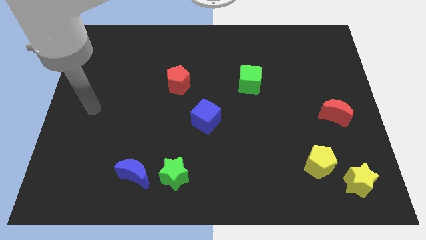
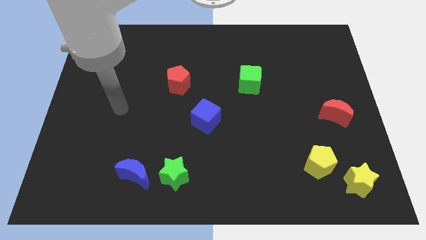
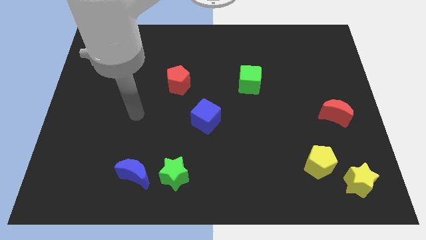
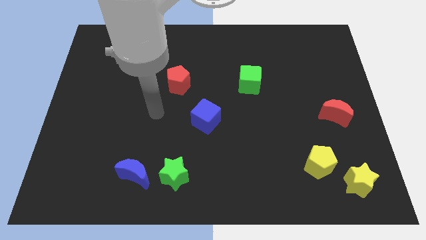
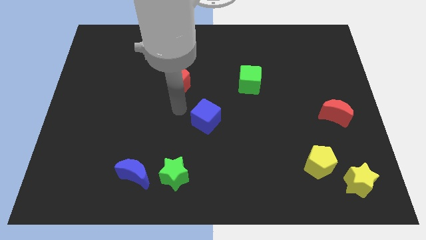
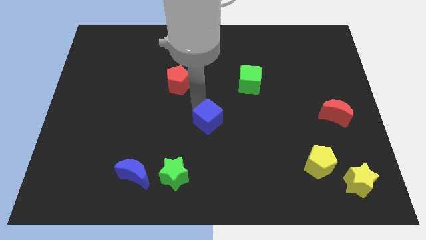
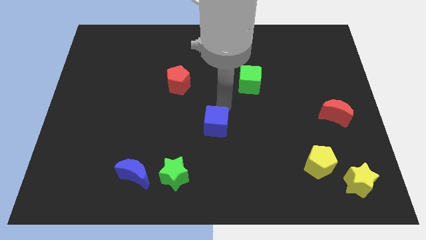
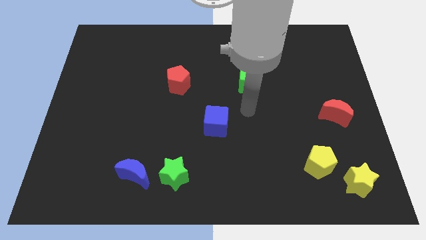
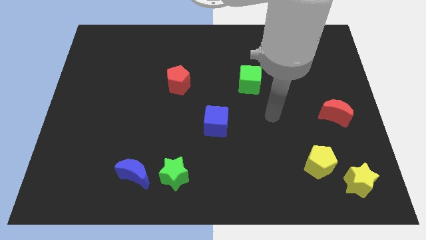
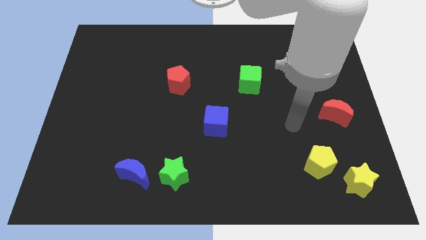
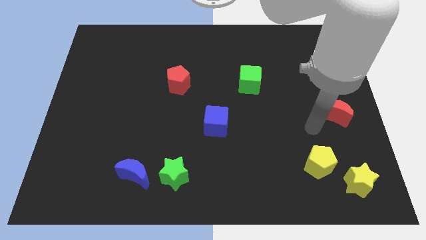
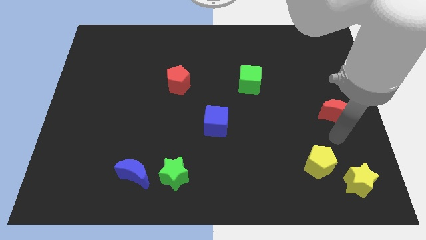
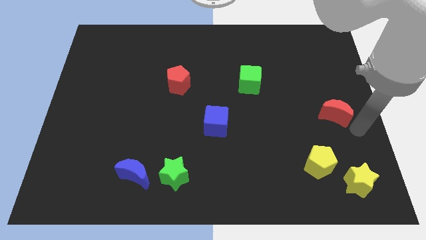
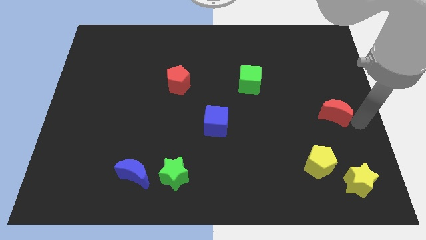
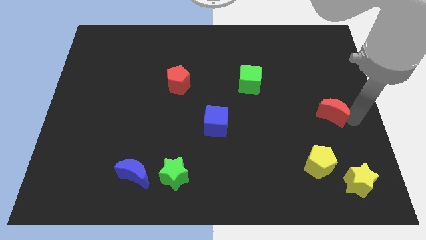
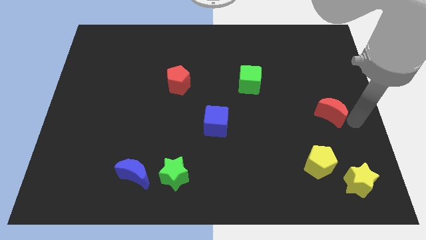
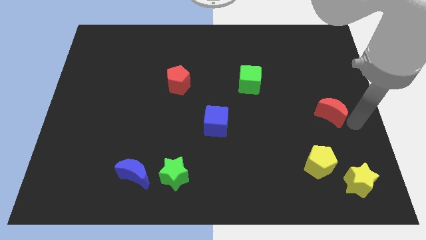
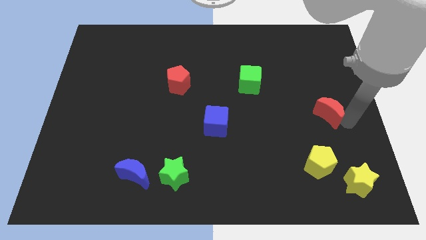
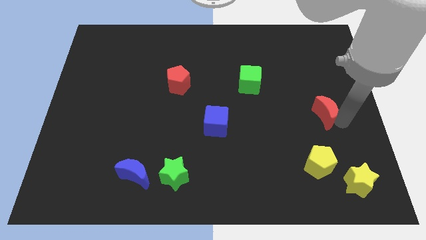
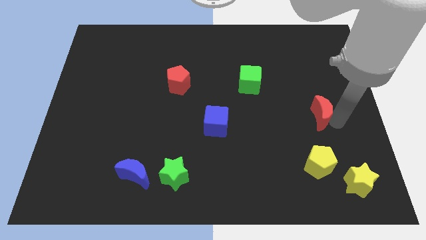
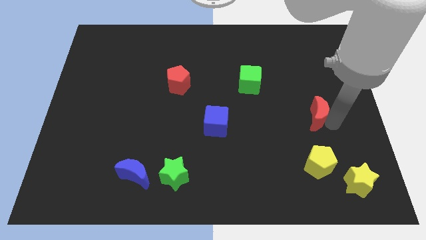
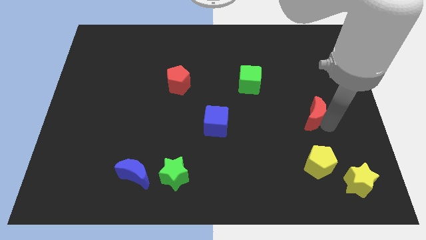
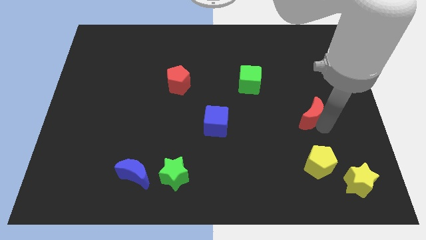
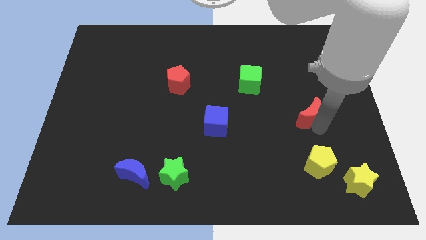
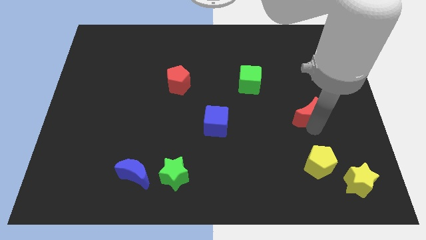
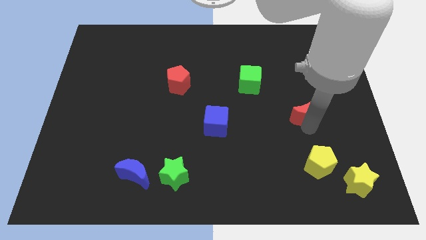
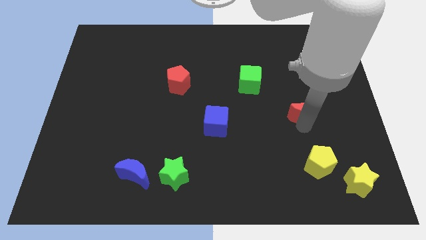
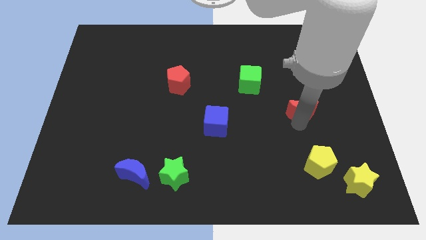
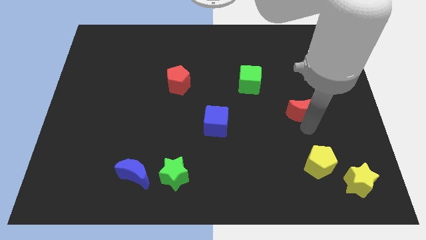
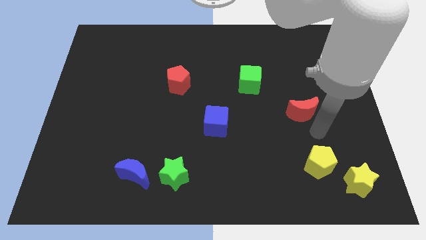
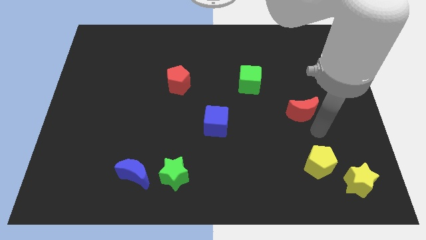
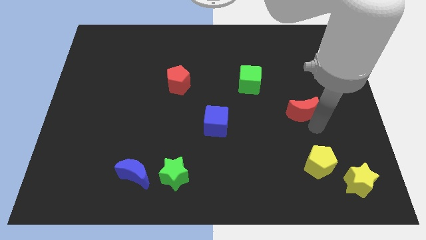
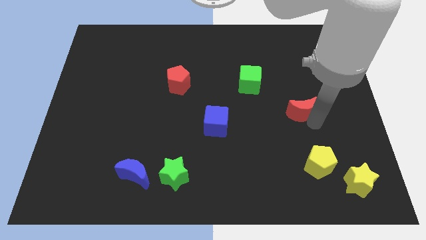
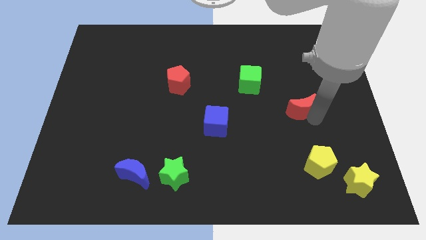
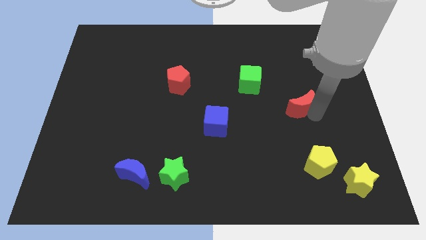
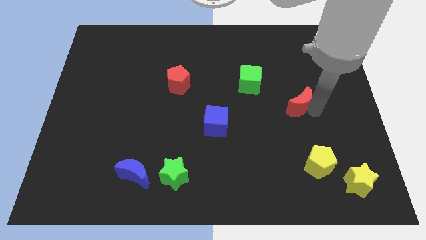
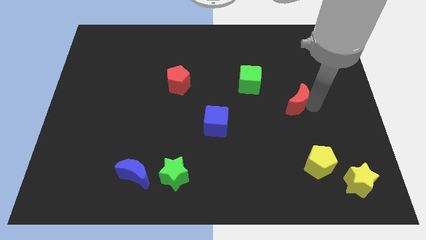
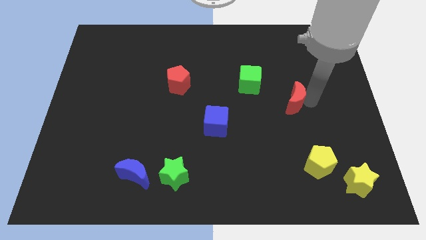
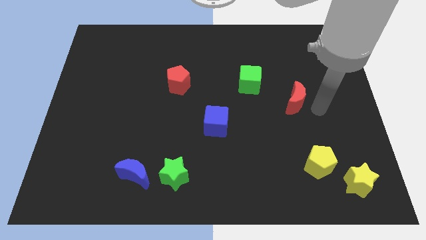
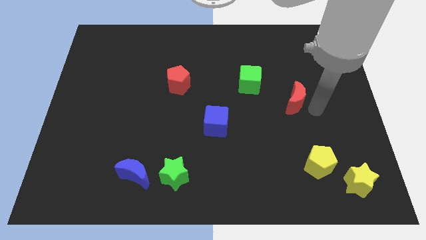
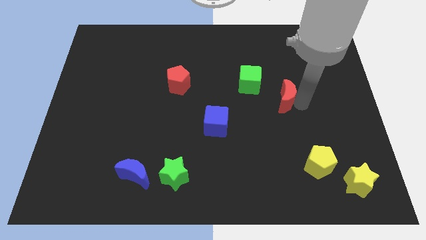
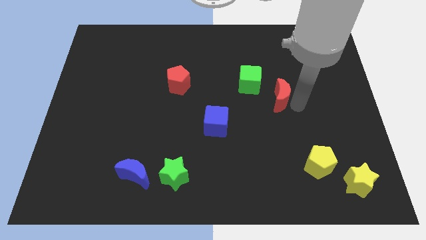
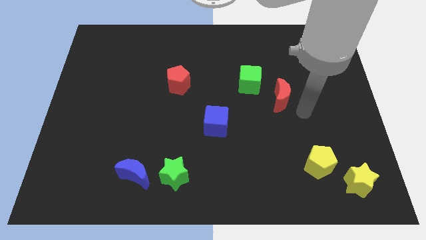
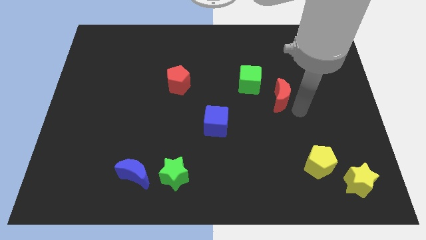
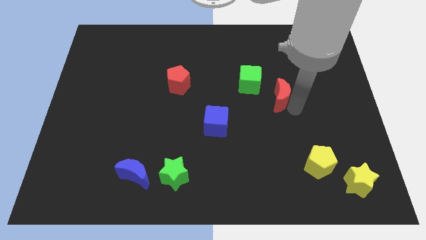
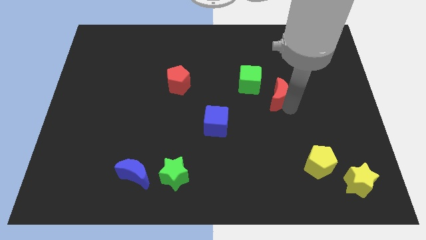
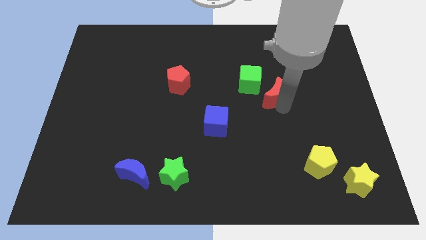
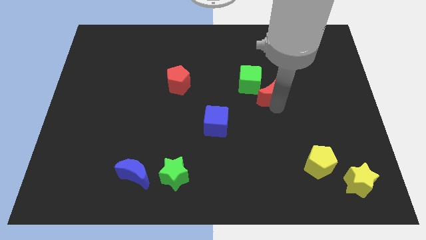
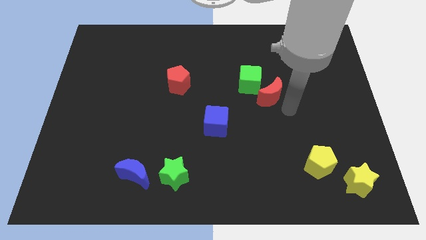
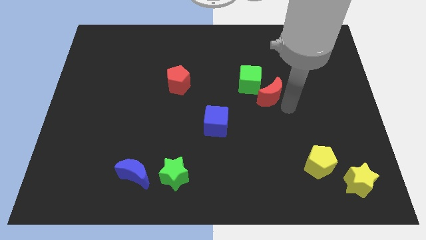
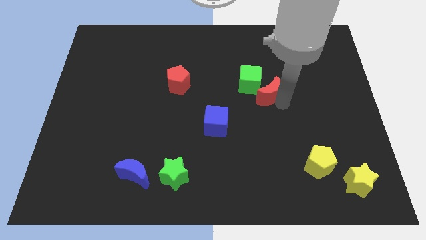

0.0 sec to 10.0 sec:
put the red moon close to the green cube

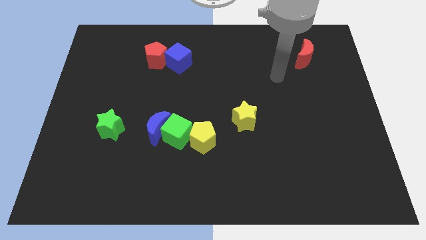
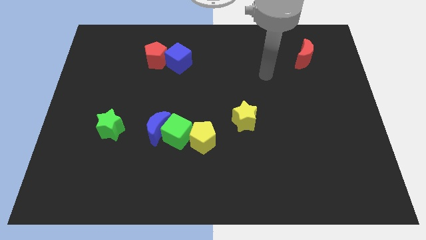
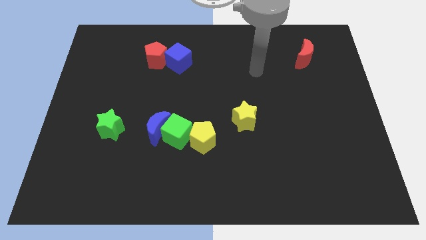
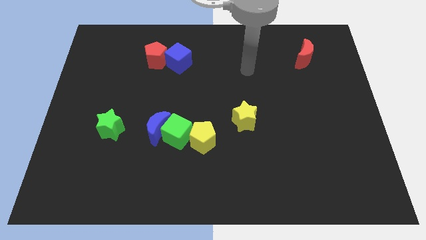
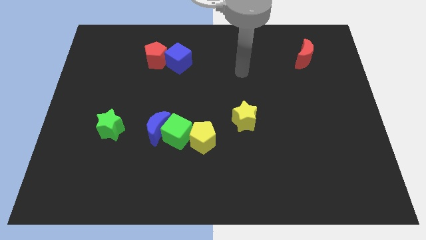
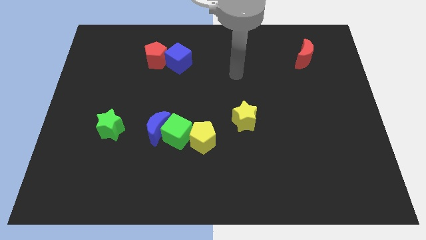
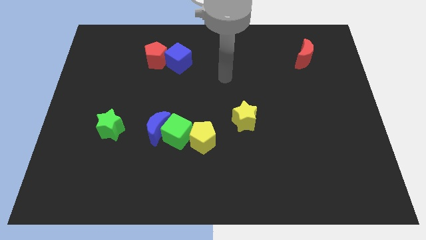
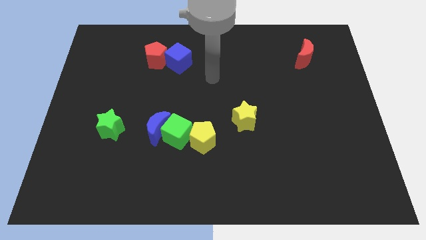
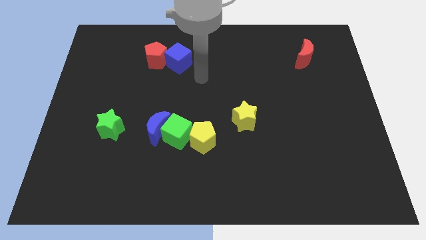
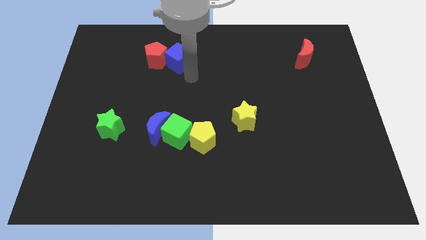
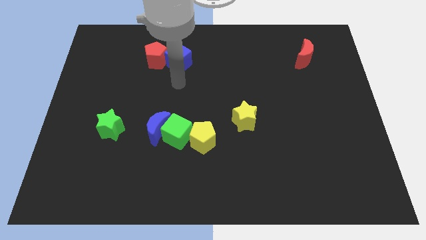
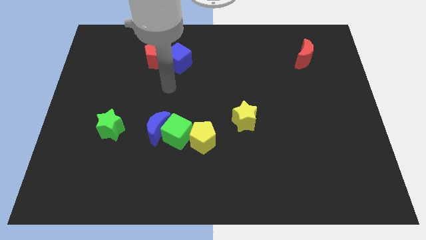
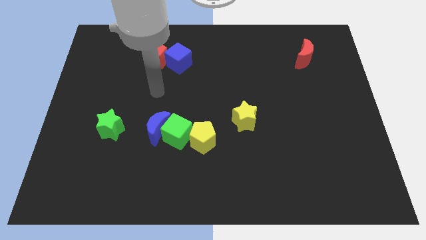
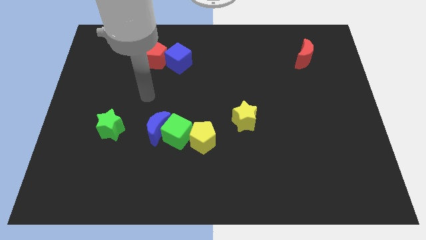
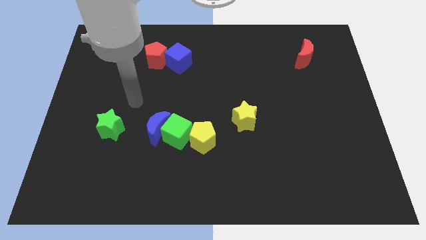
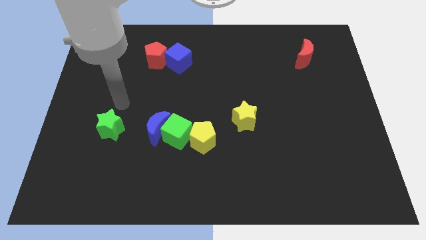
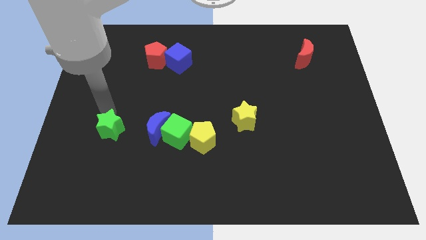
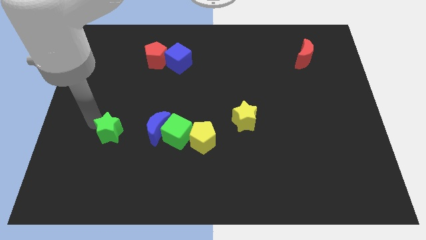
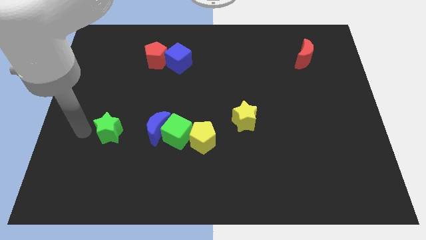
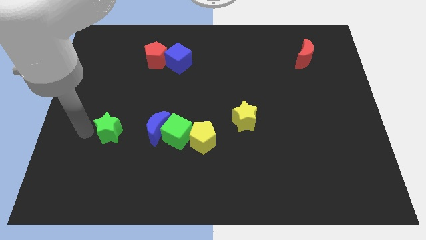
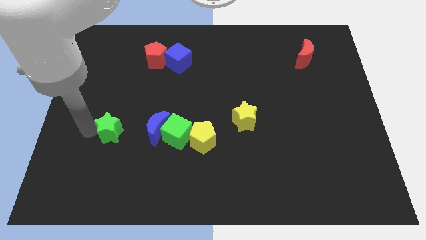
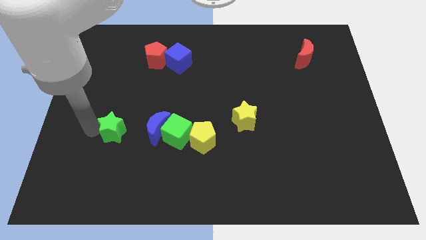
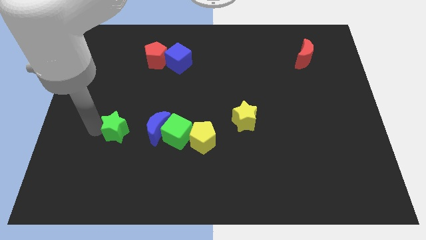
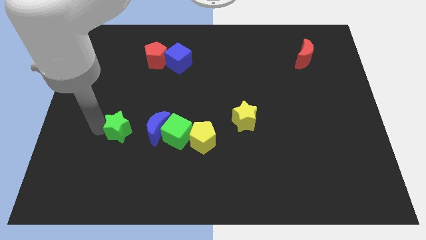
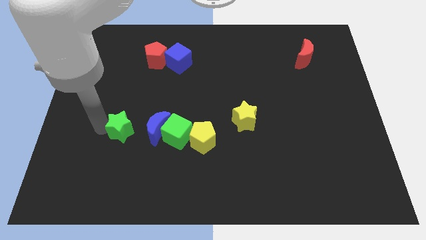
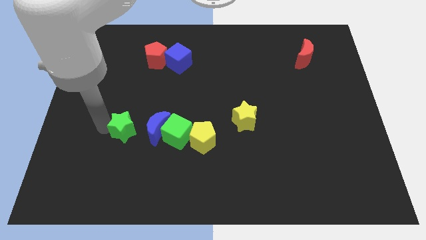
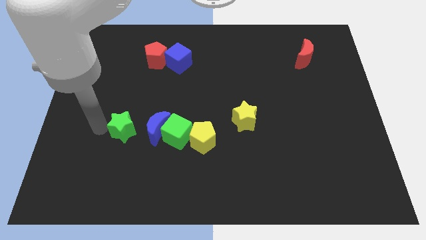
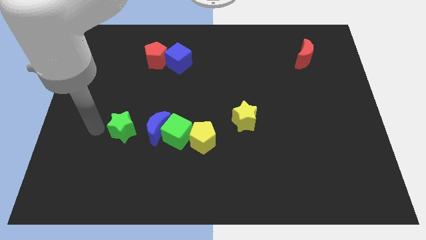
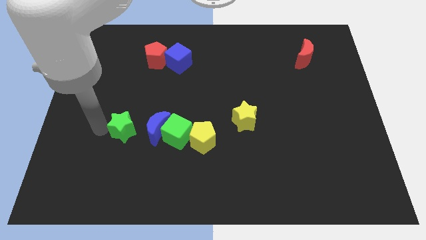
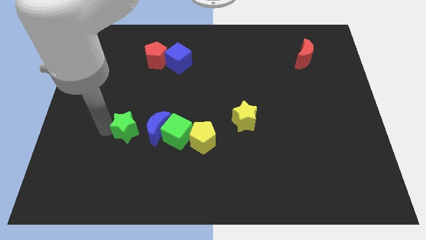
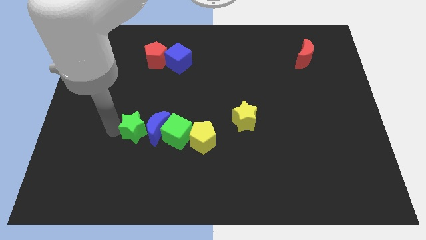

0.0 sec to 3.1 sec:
put the green star to the blue moon
